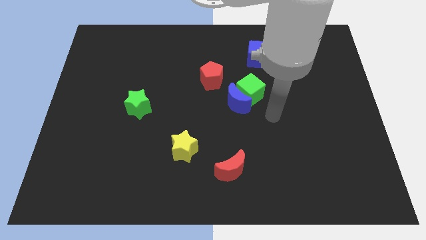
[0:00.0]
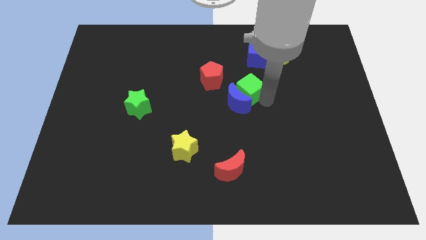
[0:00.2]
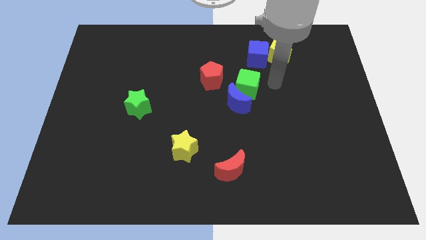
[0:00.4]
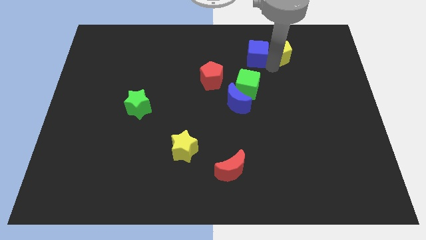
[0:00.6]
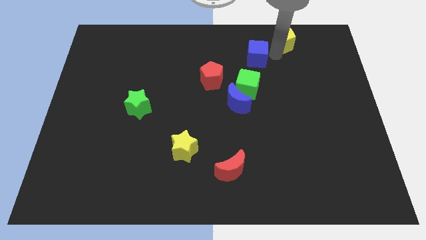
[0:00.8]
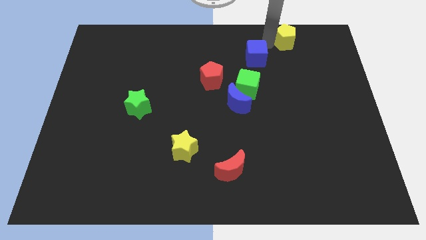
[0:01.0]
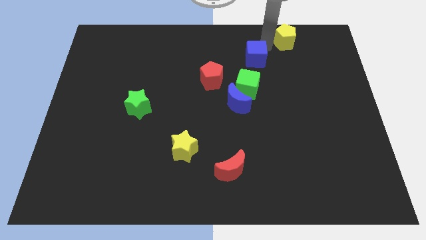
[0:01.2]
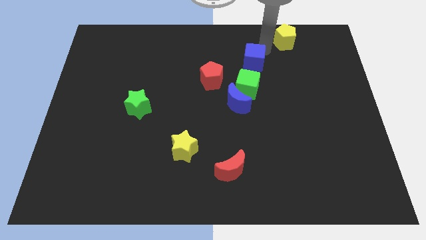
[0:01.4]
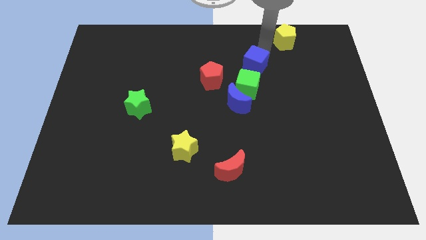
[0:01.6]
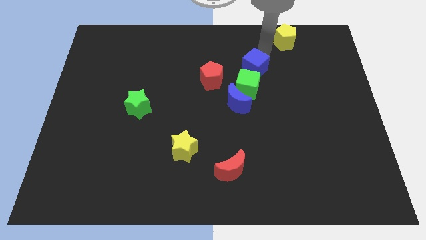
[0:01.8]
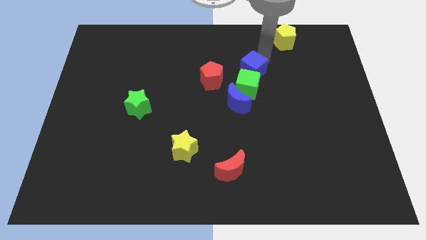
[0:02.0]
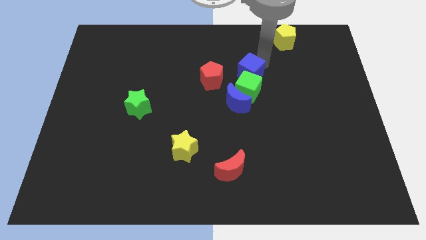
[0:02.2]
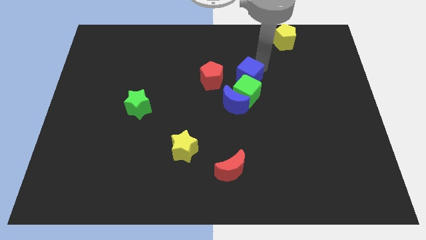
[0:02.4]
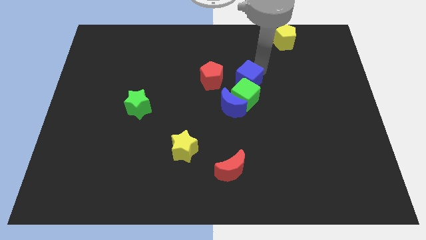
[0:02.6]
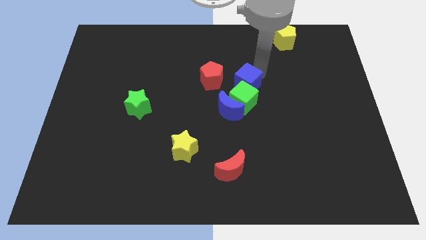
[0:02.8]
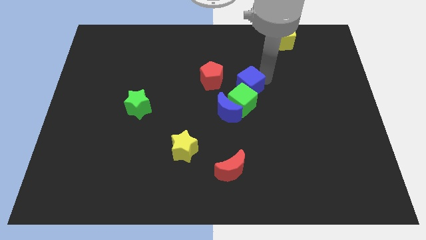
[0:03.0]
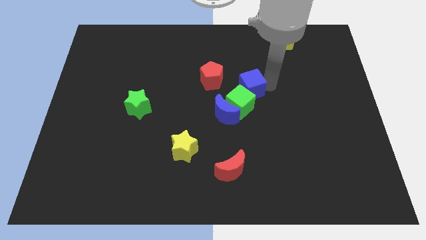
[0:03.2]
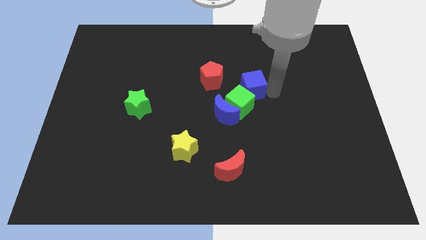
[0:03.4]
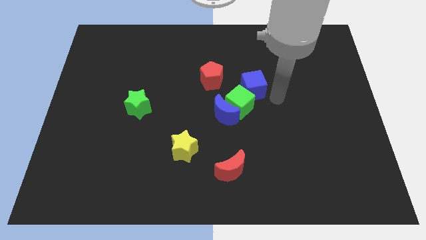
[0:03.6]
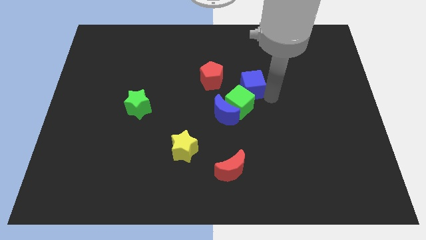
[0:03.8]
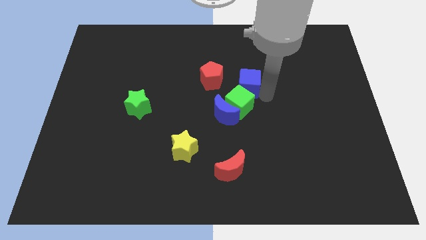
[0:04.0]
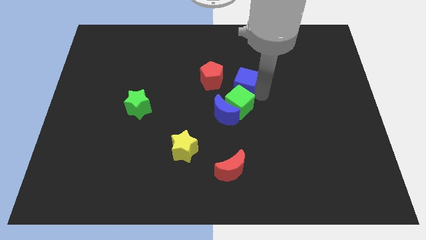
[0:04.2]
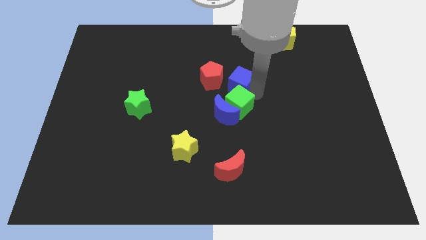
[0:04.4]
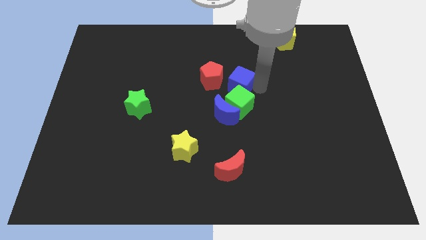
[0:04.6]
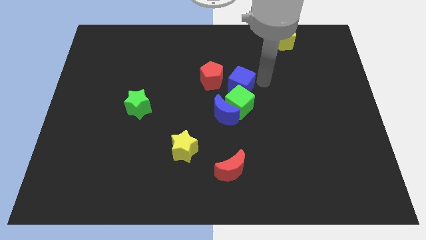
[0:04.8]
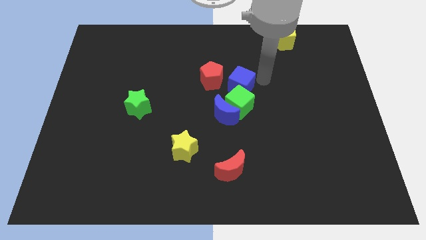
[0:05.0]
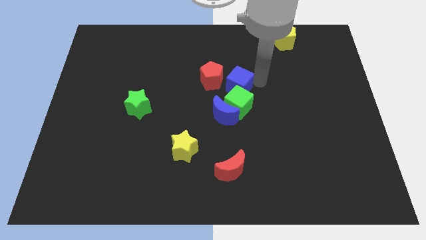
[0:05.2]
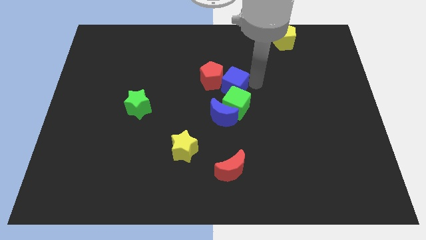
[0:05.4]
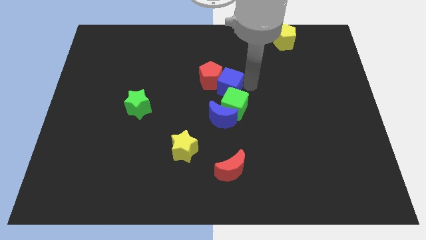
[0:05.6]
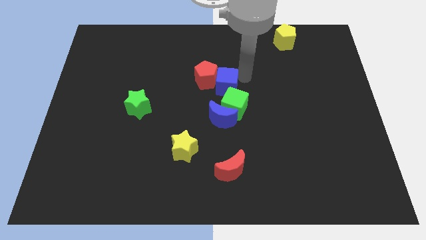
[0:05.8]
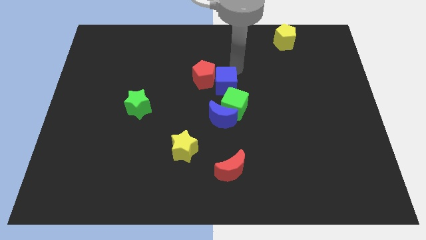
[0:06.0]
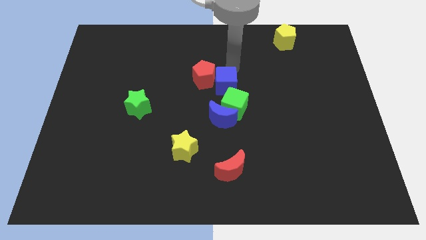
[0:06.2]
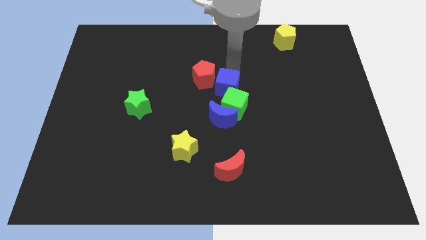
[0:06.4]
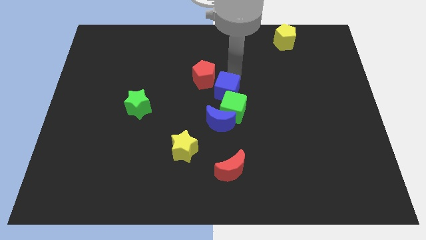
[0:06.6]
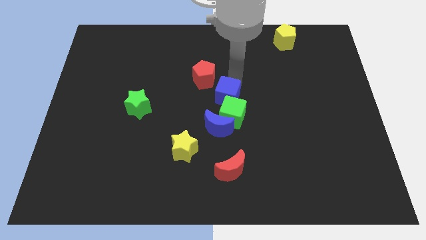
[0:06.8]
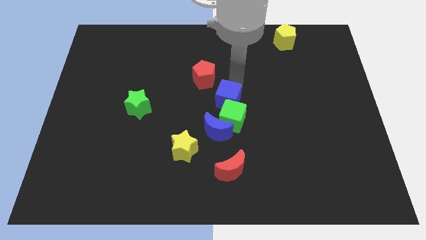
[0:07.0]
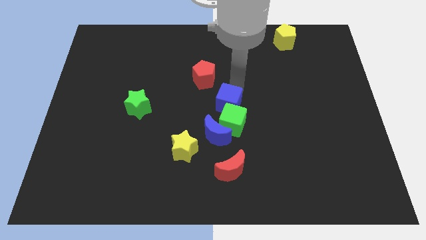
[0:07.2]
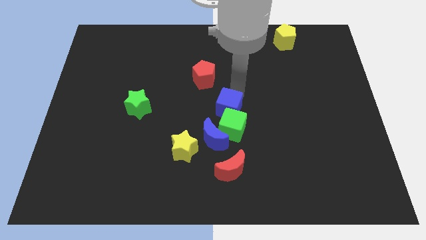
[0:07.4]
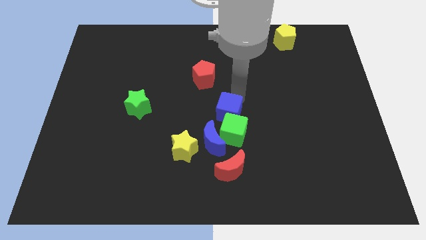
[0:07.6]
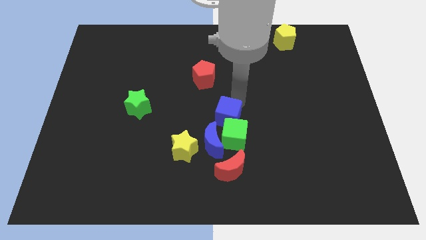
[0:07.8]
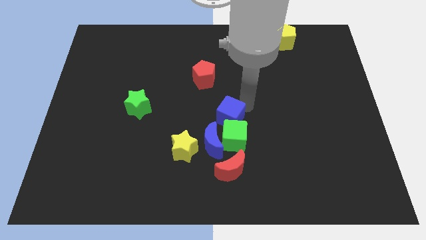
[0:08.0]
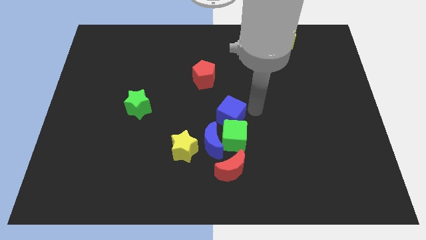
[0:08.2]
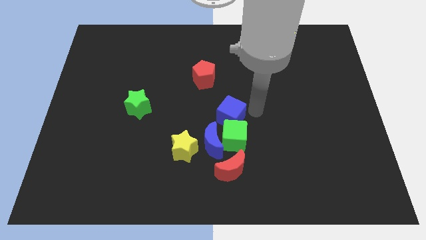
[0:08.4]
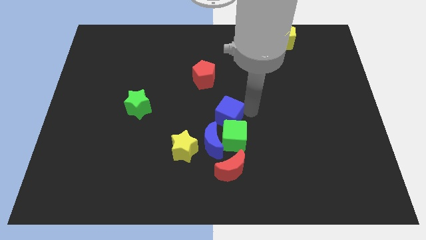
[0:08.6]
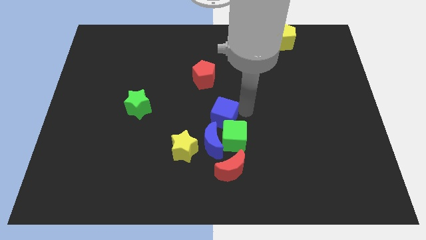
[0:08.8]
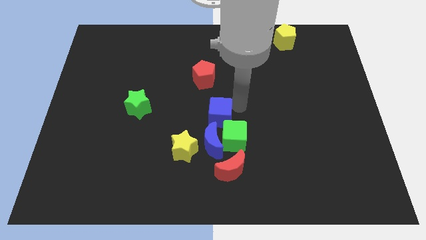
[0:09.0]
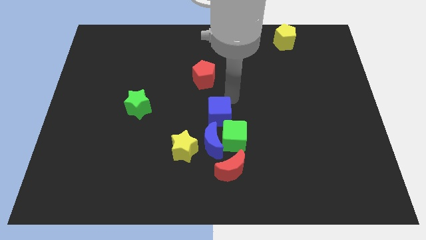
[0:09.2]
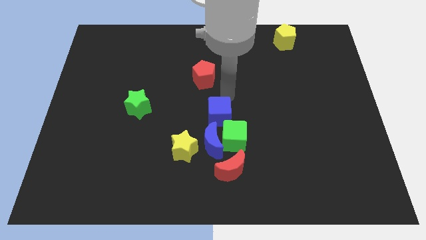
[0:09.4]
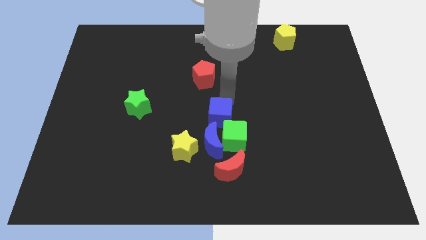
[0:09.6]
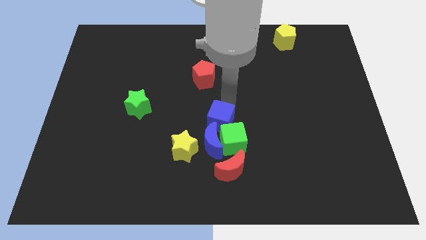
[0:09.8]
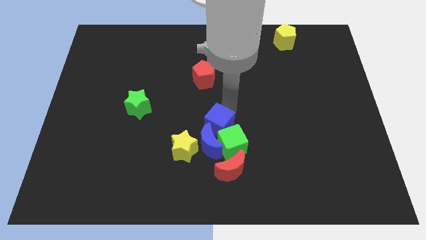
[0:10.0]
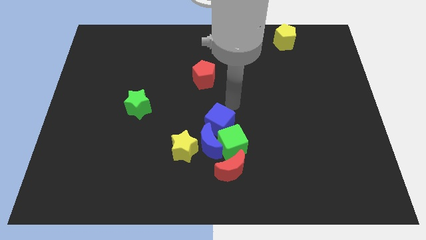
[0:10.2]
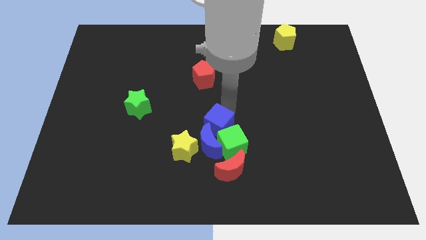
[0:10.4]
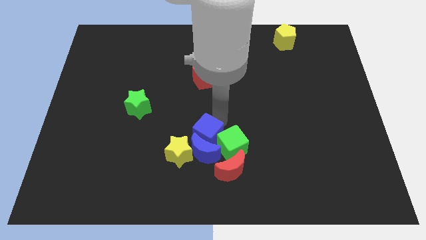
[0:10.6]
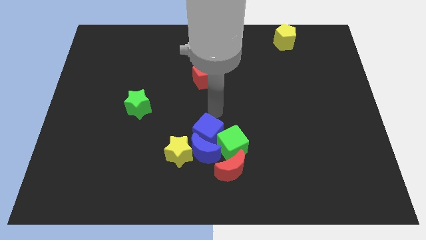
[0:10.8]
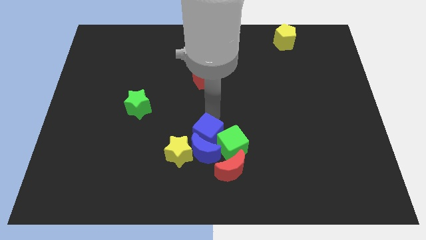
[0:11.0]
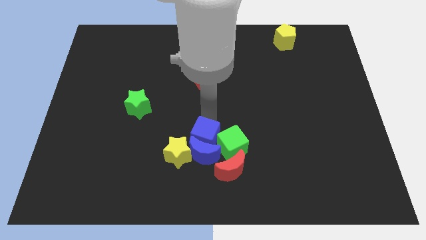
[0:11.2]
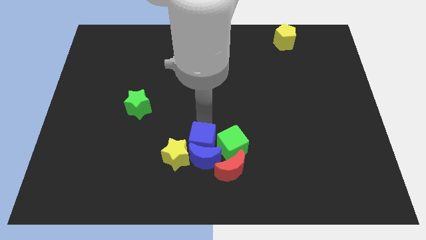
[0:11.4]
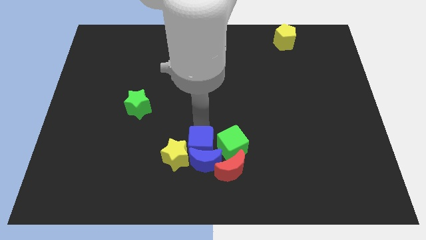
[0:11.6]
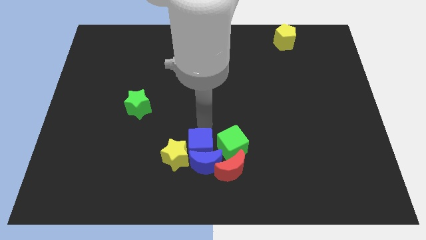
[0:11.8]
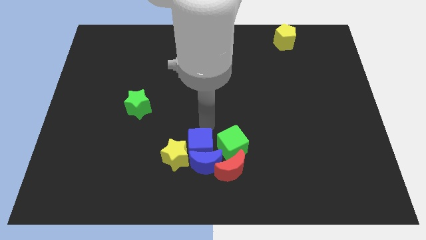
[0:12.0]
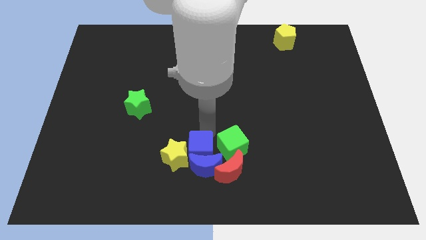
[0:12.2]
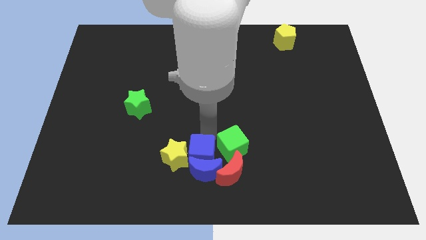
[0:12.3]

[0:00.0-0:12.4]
push the blue cube to the bottom

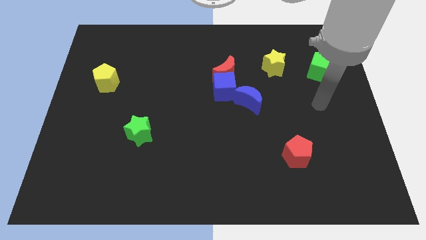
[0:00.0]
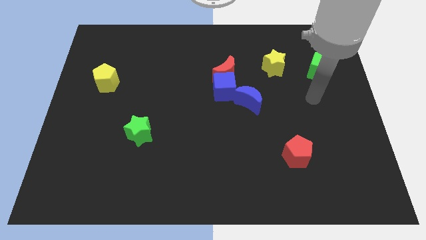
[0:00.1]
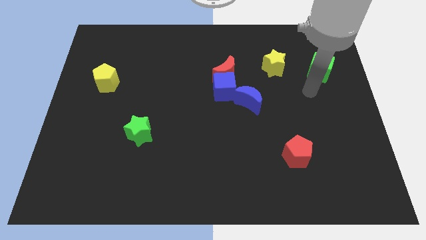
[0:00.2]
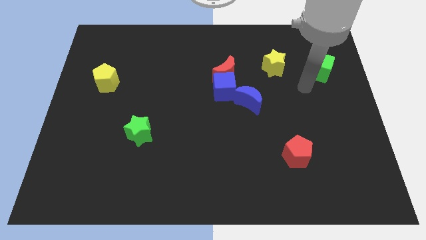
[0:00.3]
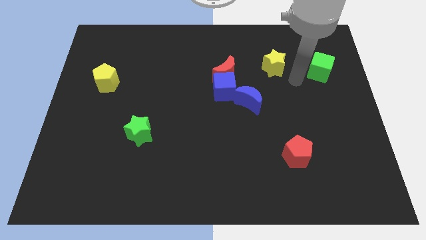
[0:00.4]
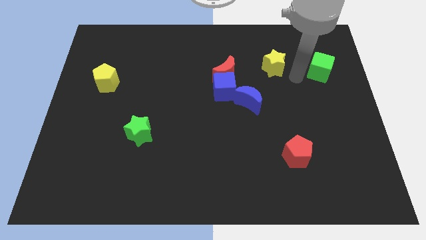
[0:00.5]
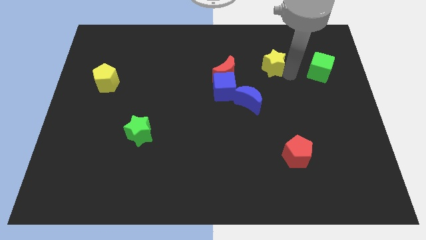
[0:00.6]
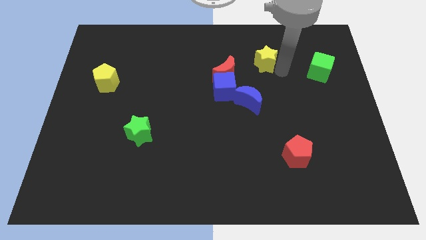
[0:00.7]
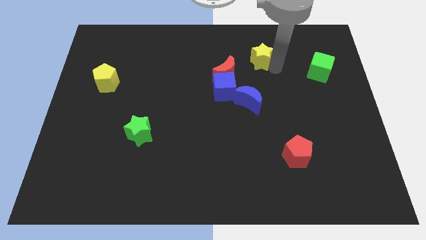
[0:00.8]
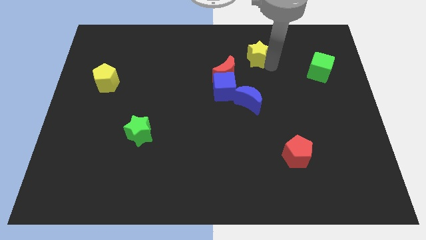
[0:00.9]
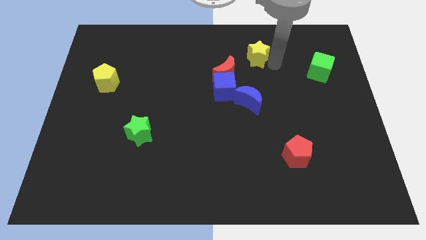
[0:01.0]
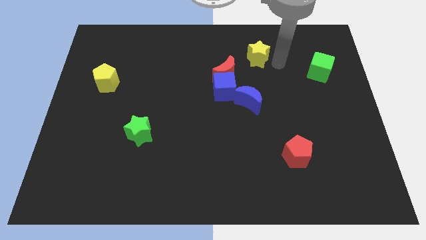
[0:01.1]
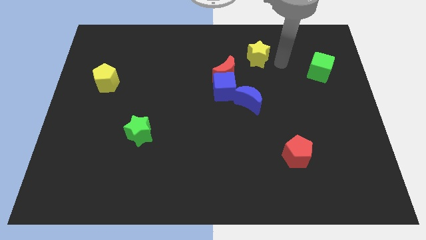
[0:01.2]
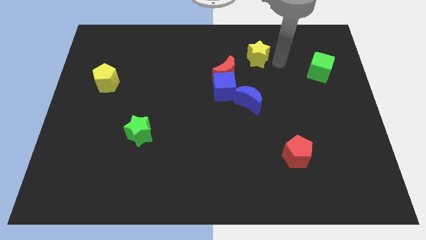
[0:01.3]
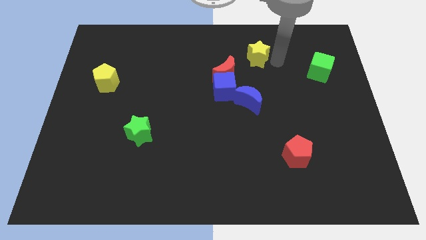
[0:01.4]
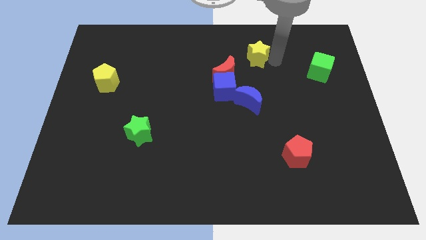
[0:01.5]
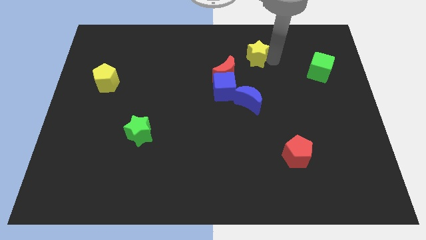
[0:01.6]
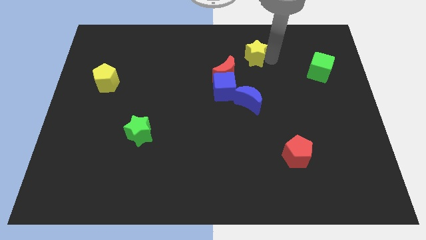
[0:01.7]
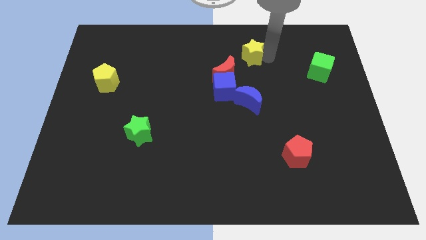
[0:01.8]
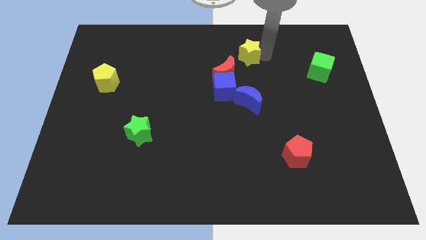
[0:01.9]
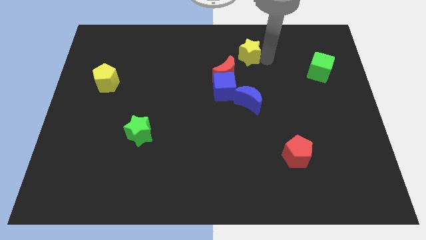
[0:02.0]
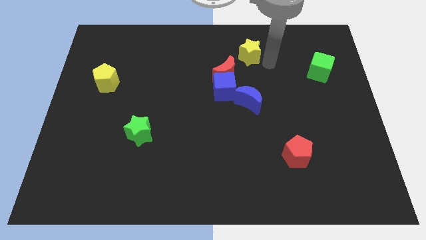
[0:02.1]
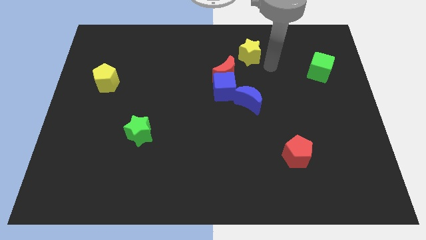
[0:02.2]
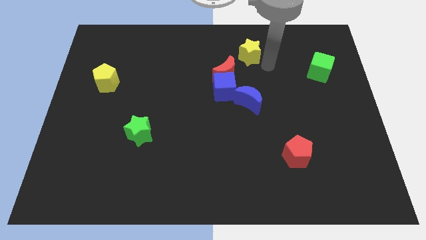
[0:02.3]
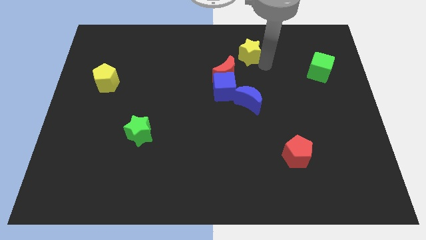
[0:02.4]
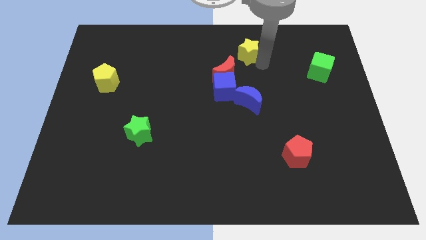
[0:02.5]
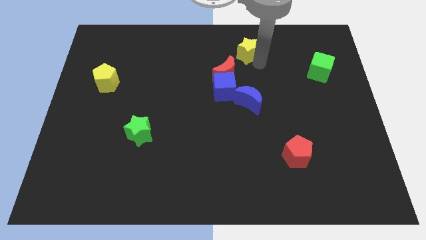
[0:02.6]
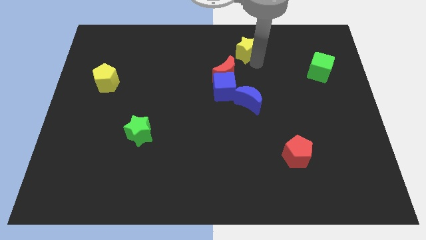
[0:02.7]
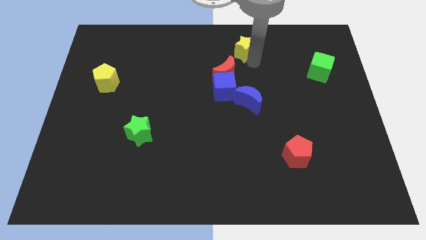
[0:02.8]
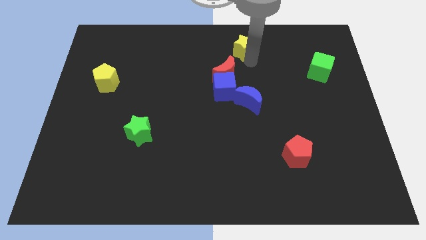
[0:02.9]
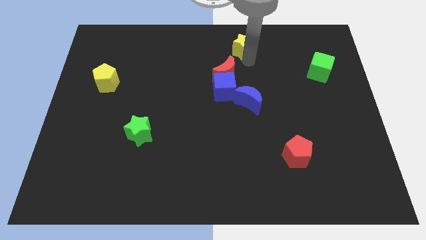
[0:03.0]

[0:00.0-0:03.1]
slide the yellow star to the top
